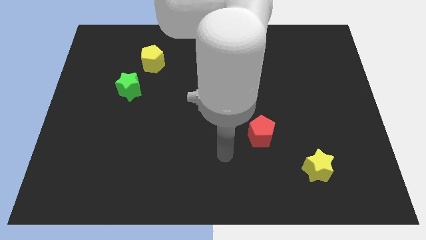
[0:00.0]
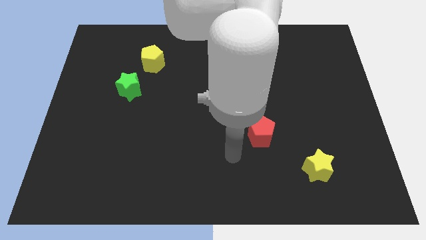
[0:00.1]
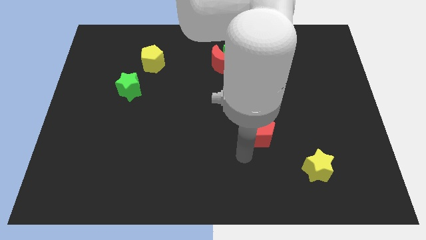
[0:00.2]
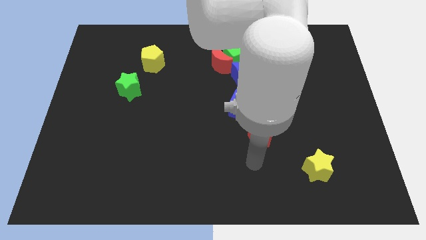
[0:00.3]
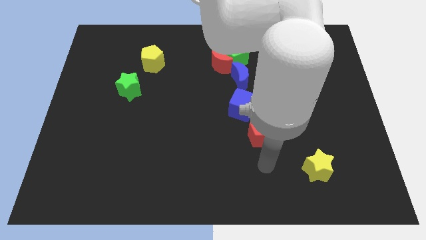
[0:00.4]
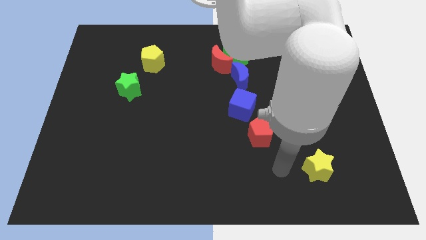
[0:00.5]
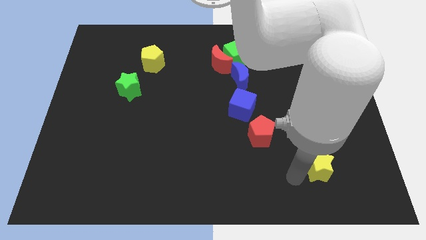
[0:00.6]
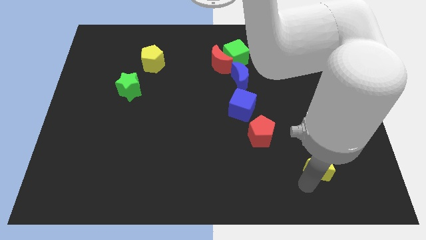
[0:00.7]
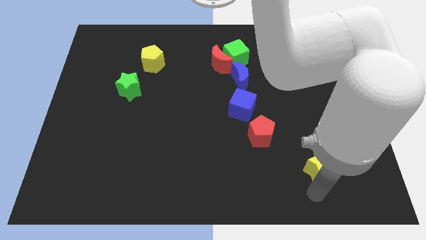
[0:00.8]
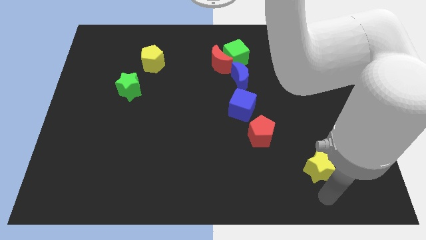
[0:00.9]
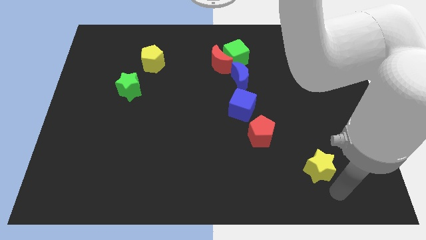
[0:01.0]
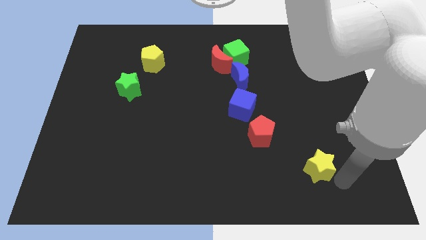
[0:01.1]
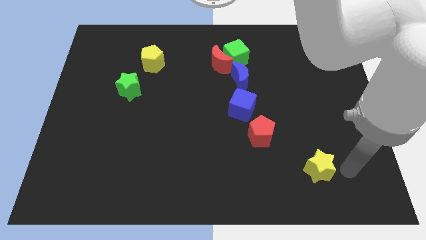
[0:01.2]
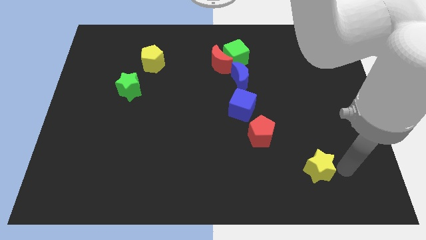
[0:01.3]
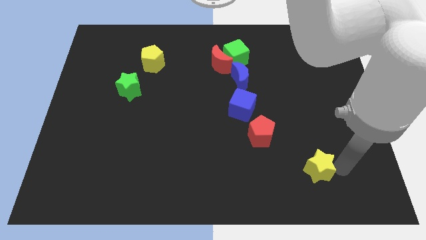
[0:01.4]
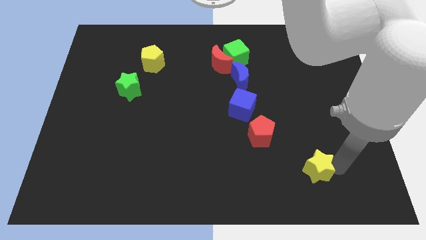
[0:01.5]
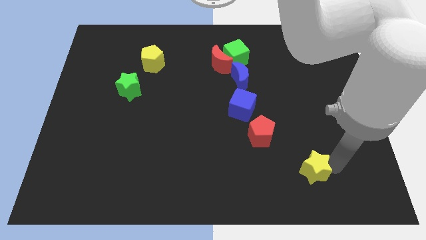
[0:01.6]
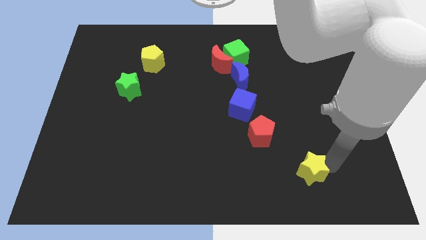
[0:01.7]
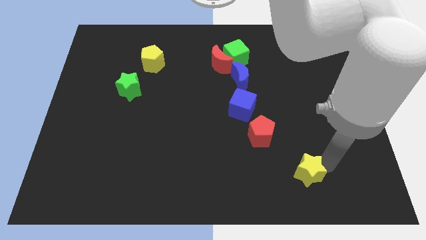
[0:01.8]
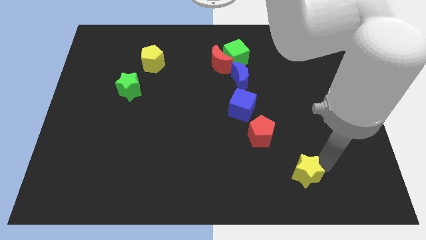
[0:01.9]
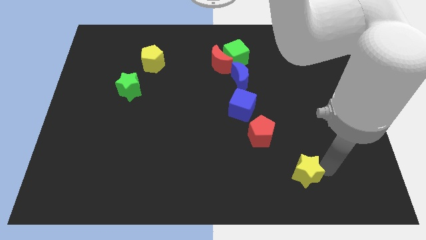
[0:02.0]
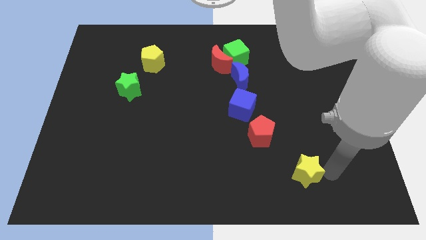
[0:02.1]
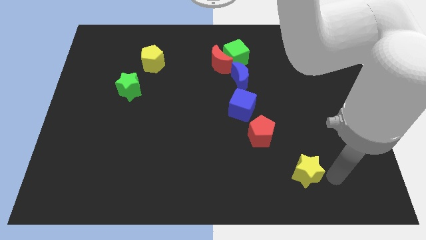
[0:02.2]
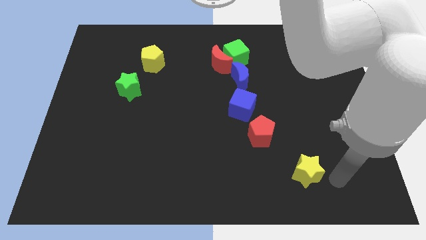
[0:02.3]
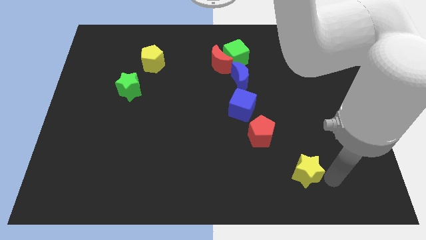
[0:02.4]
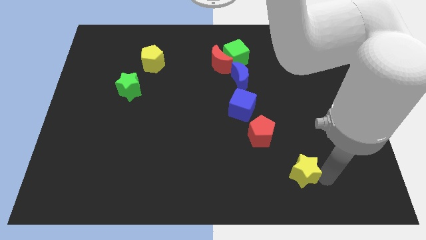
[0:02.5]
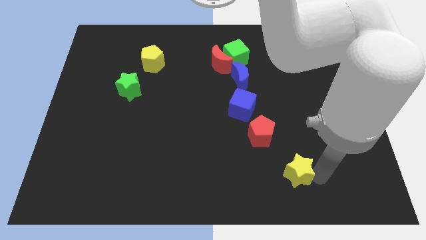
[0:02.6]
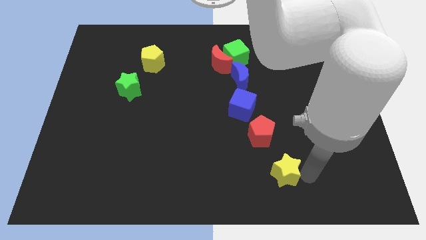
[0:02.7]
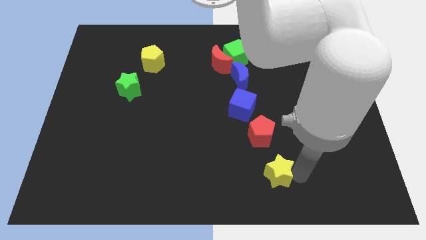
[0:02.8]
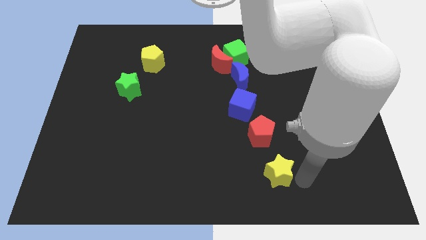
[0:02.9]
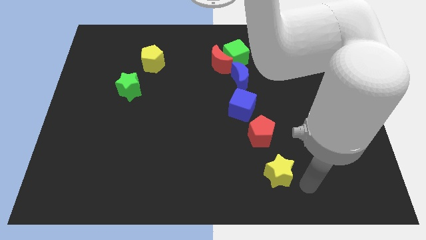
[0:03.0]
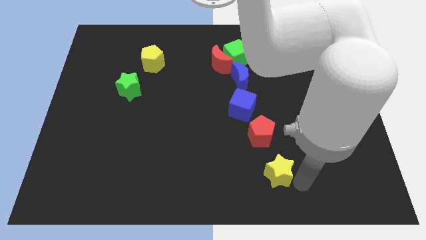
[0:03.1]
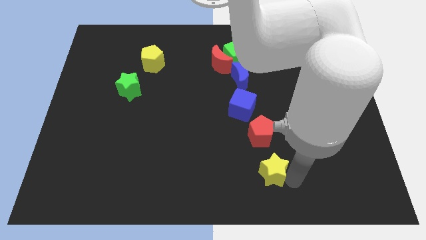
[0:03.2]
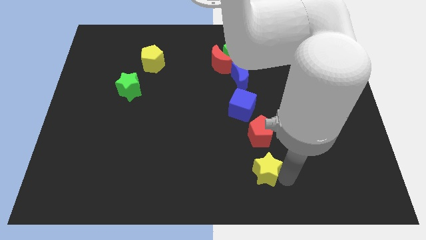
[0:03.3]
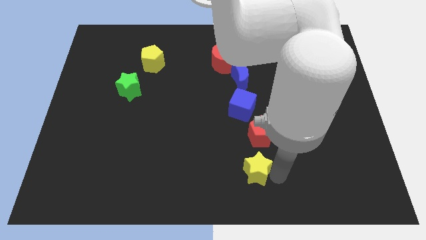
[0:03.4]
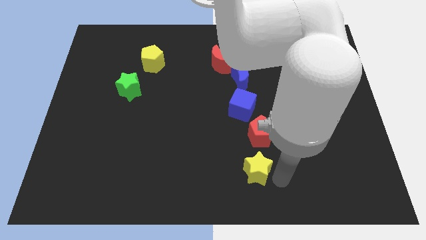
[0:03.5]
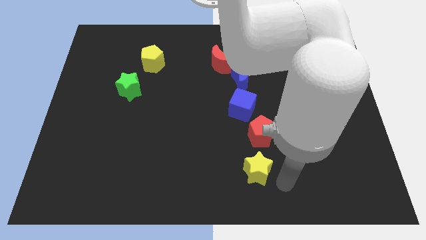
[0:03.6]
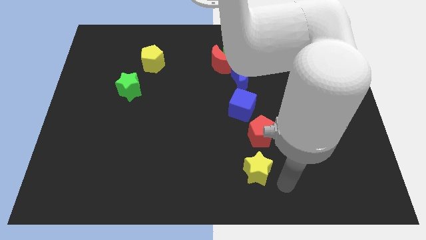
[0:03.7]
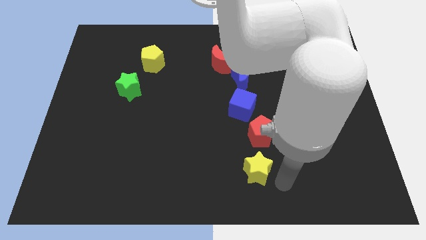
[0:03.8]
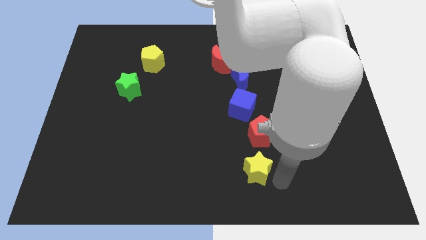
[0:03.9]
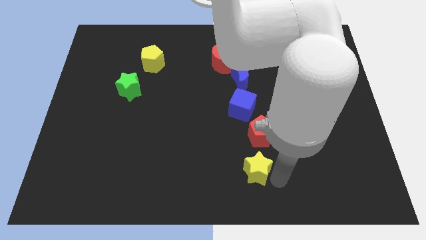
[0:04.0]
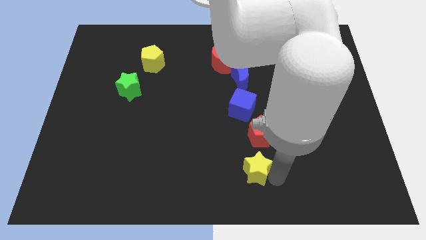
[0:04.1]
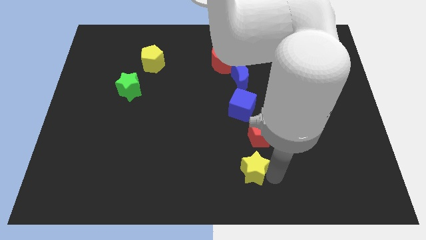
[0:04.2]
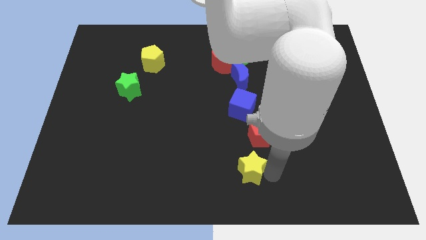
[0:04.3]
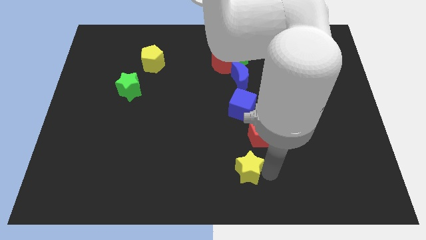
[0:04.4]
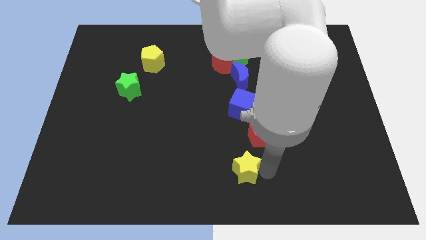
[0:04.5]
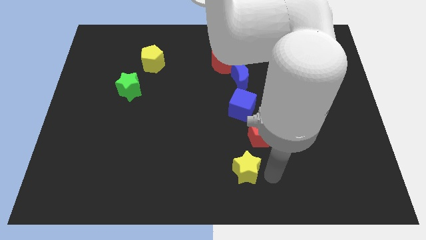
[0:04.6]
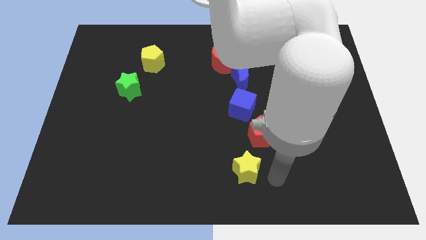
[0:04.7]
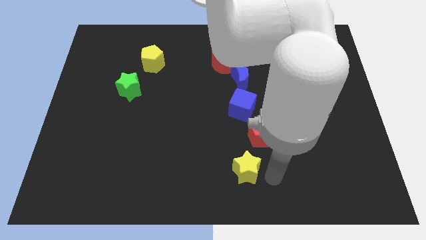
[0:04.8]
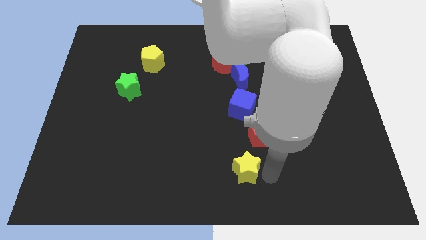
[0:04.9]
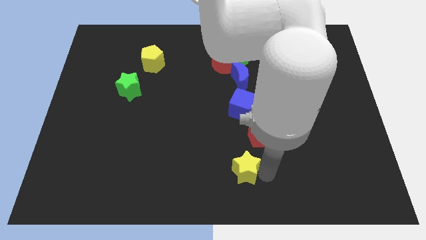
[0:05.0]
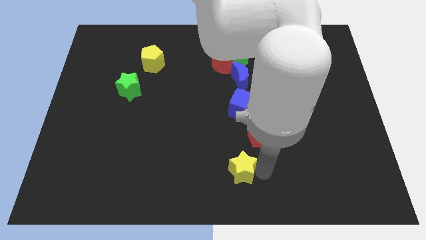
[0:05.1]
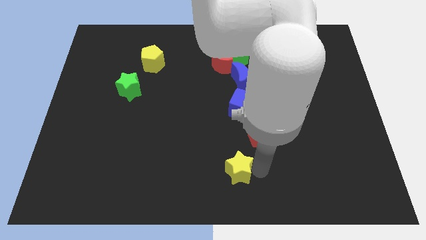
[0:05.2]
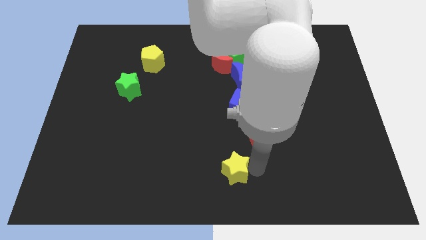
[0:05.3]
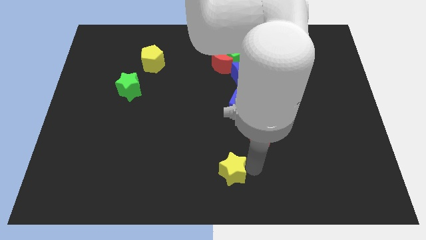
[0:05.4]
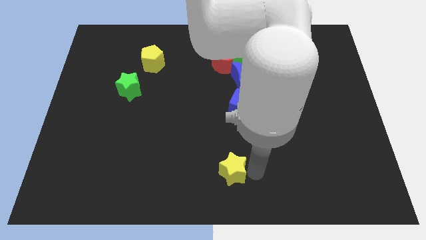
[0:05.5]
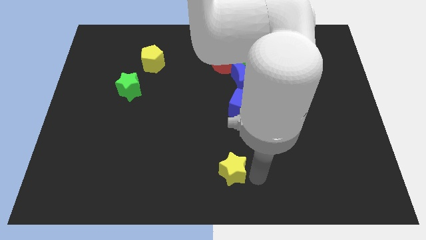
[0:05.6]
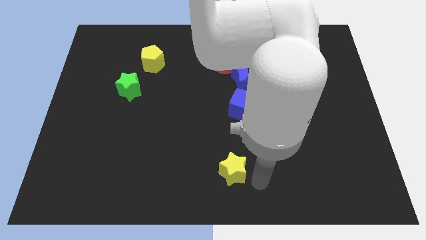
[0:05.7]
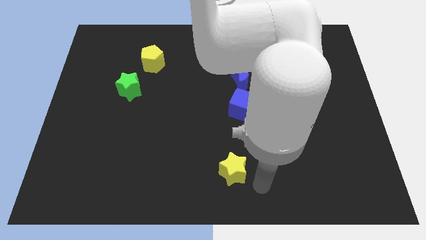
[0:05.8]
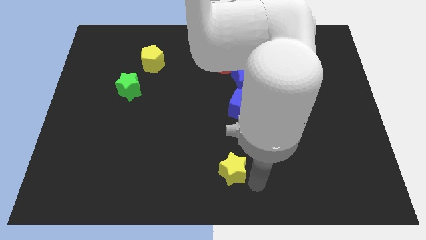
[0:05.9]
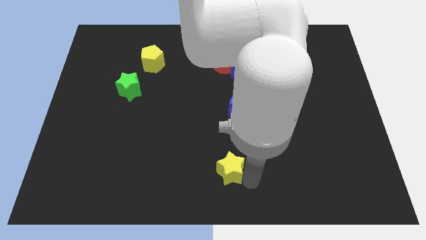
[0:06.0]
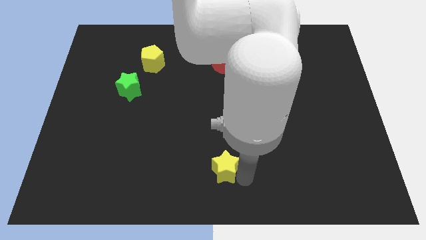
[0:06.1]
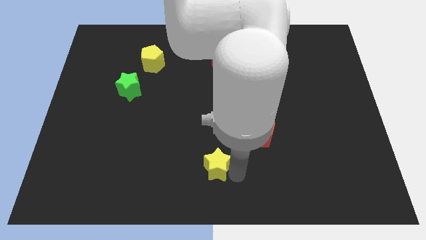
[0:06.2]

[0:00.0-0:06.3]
move the yellow star to the left

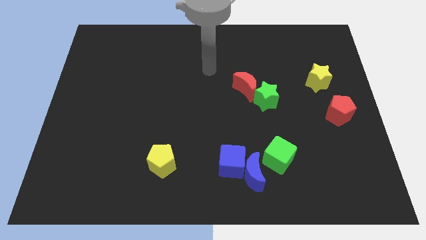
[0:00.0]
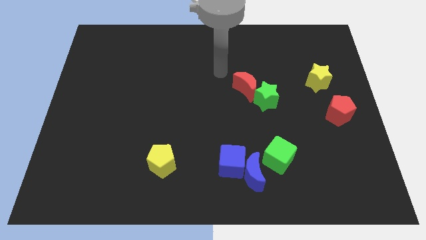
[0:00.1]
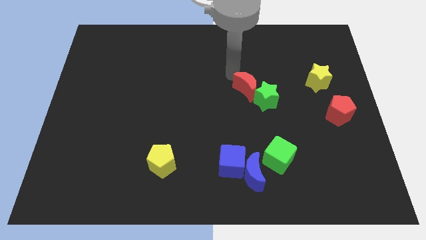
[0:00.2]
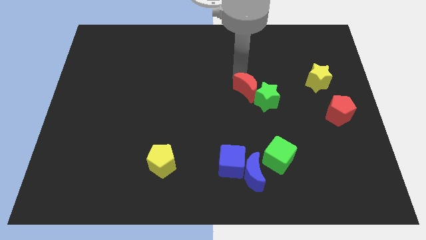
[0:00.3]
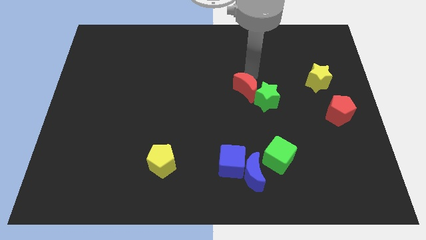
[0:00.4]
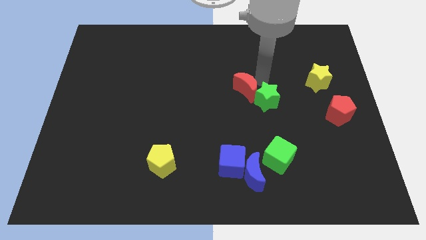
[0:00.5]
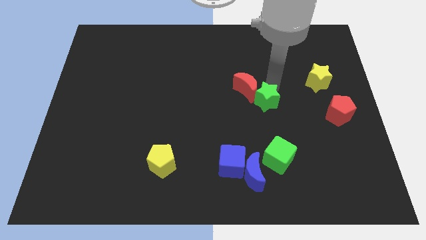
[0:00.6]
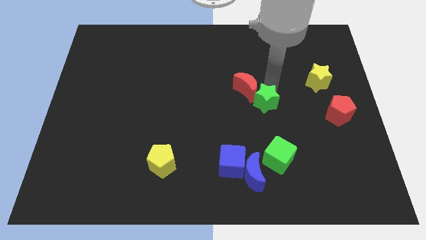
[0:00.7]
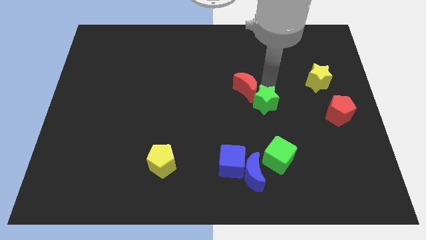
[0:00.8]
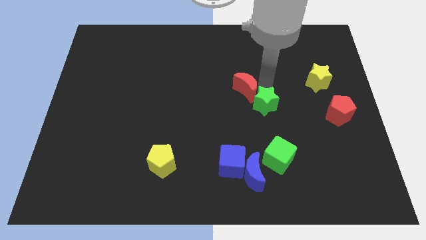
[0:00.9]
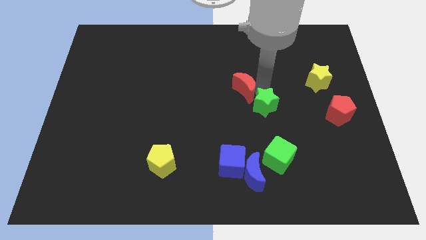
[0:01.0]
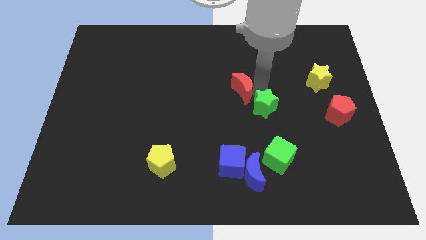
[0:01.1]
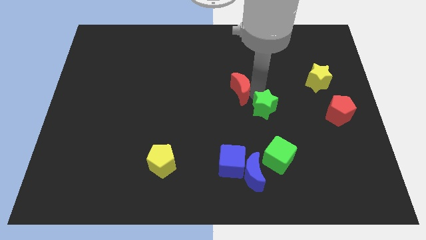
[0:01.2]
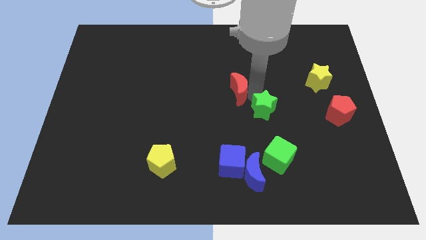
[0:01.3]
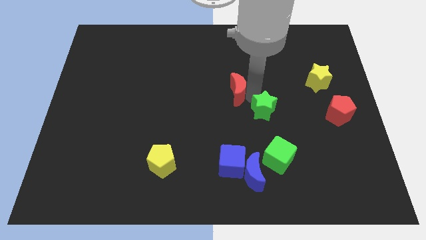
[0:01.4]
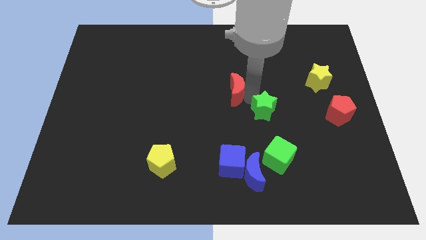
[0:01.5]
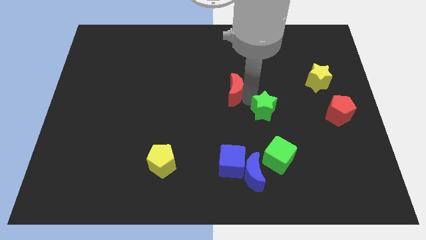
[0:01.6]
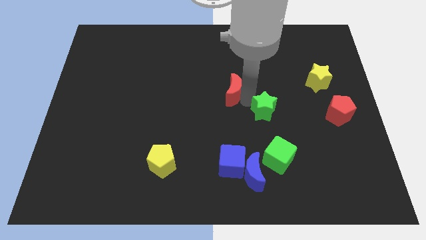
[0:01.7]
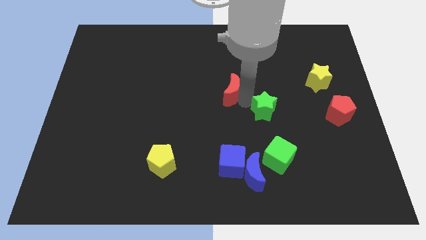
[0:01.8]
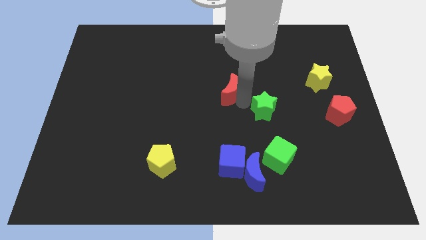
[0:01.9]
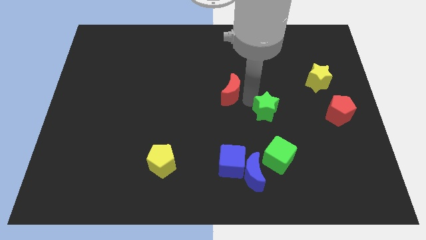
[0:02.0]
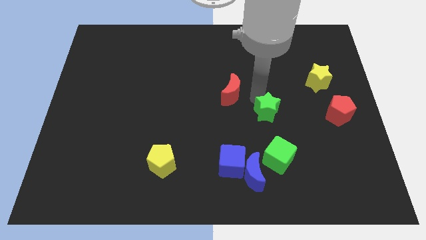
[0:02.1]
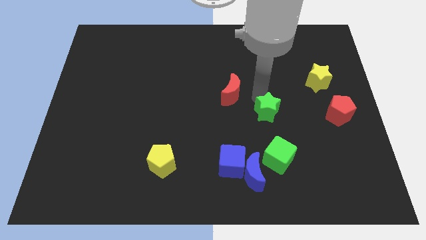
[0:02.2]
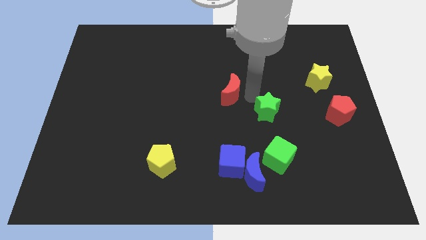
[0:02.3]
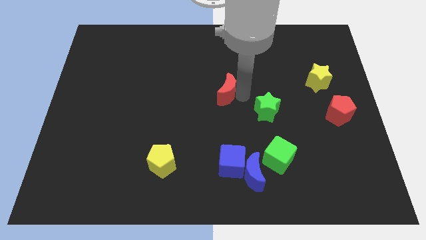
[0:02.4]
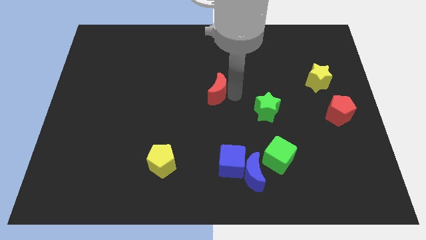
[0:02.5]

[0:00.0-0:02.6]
slightly push the red moon left
